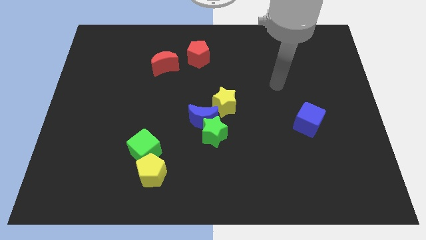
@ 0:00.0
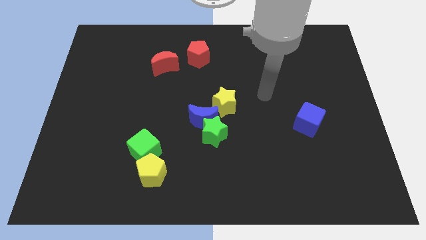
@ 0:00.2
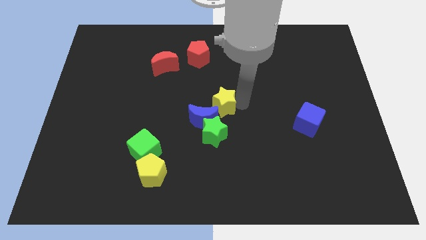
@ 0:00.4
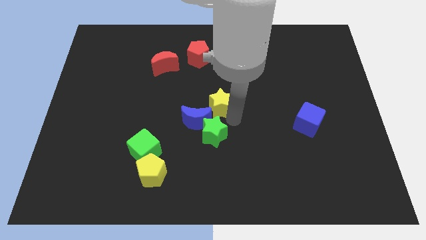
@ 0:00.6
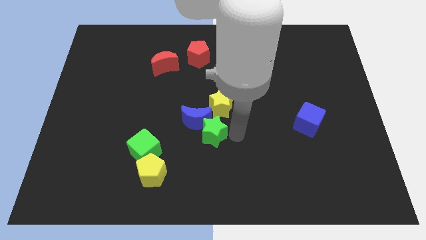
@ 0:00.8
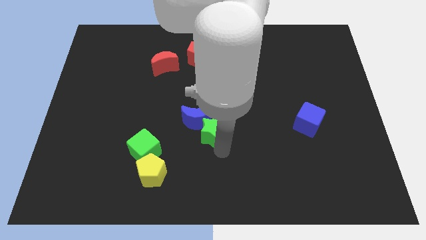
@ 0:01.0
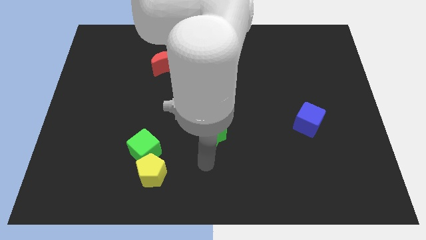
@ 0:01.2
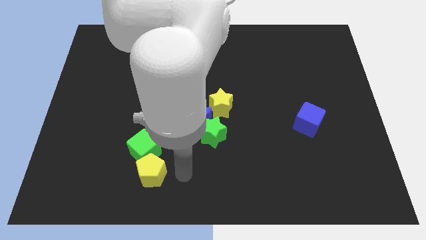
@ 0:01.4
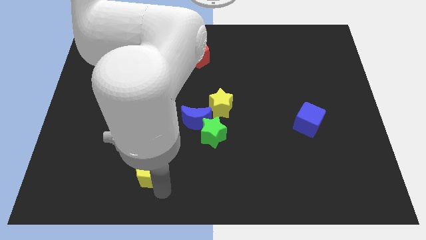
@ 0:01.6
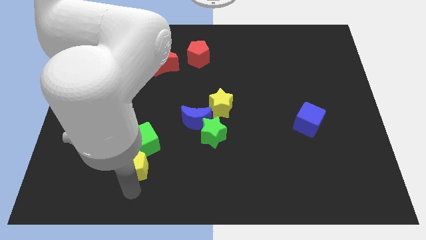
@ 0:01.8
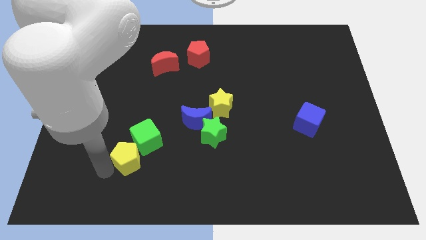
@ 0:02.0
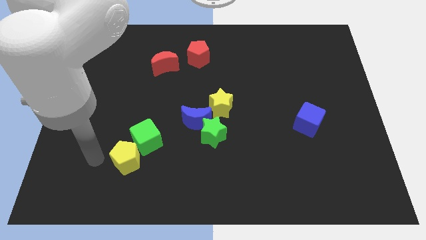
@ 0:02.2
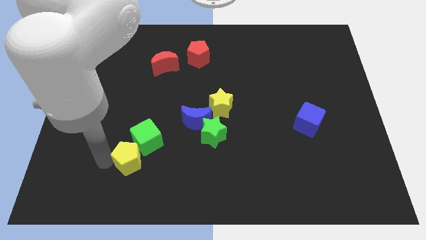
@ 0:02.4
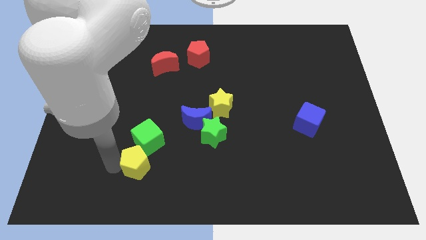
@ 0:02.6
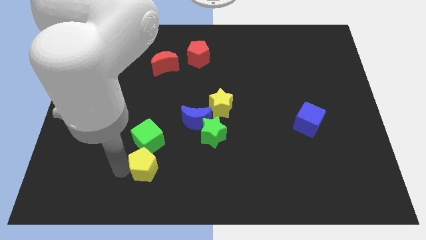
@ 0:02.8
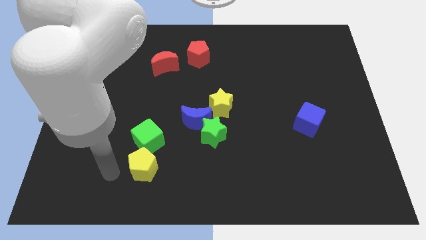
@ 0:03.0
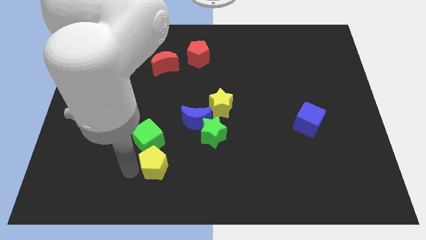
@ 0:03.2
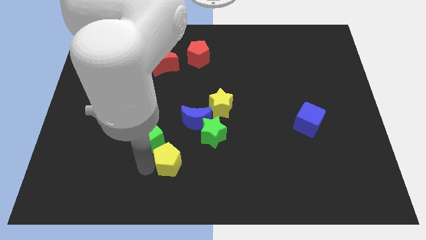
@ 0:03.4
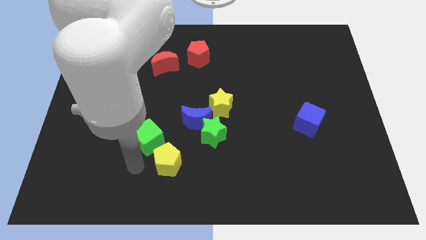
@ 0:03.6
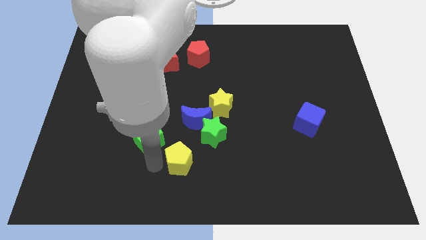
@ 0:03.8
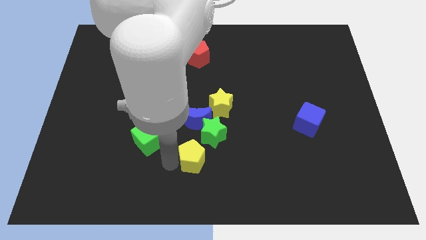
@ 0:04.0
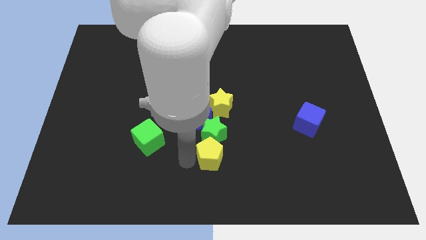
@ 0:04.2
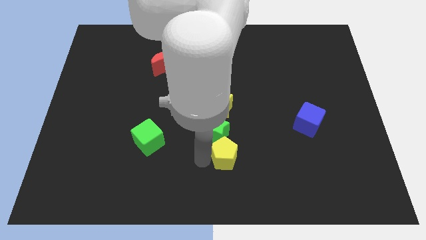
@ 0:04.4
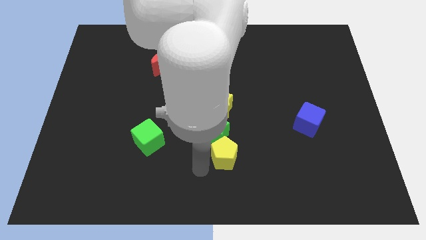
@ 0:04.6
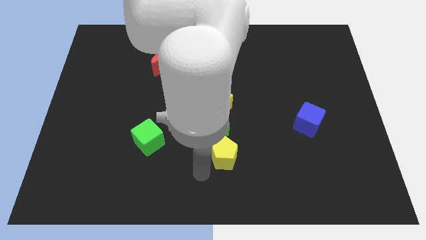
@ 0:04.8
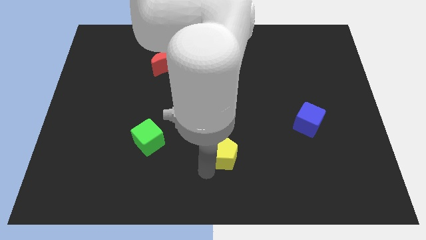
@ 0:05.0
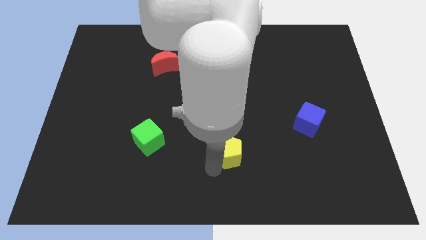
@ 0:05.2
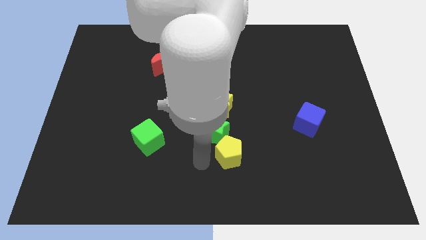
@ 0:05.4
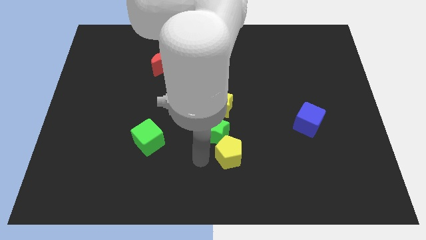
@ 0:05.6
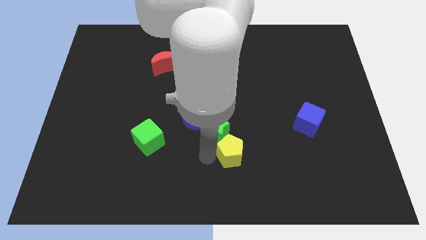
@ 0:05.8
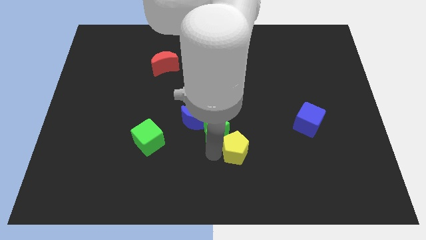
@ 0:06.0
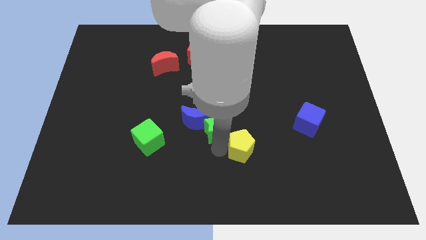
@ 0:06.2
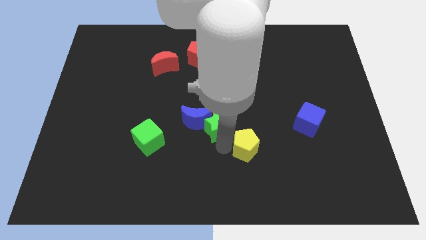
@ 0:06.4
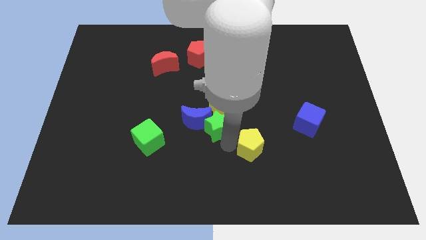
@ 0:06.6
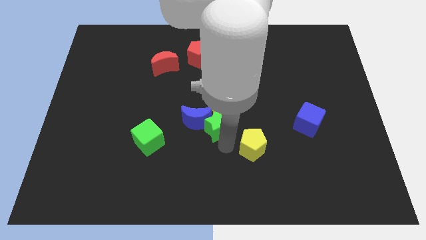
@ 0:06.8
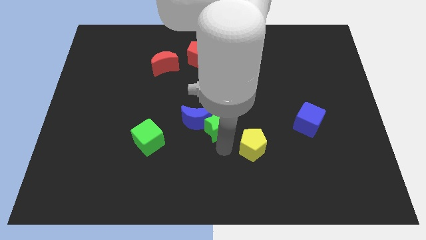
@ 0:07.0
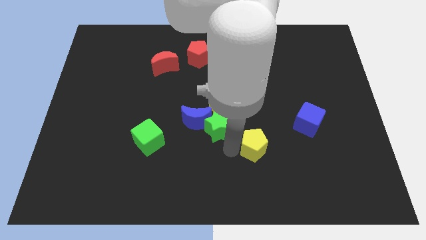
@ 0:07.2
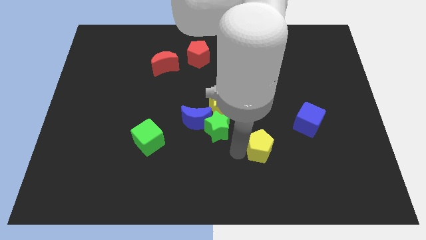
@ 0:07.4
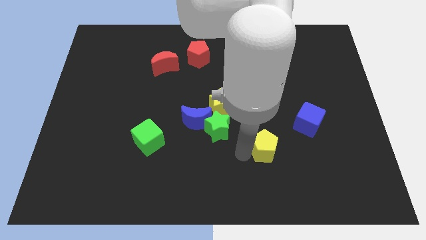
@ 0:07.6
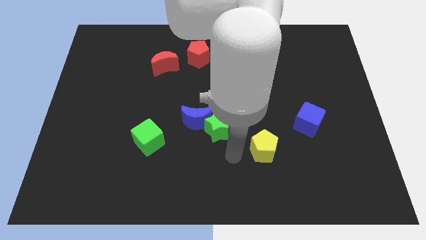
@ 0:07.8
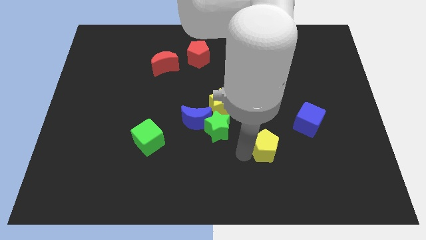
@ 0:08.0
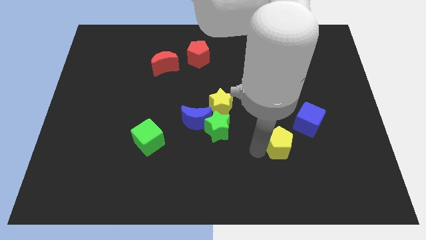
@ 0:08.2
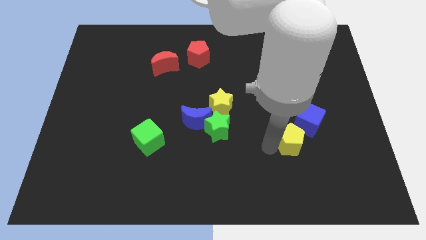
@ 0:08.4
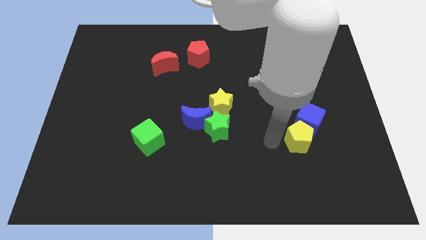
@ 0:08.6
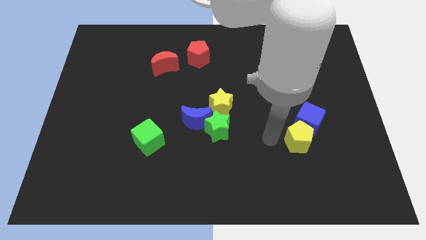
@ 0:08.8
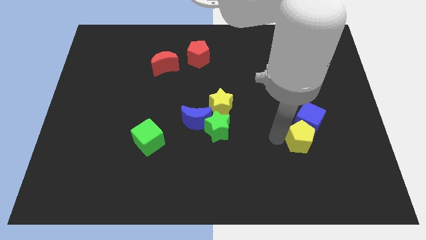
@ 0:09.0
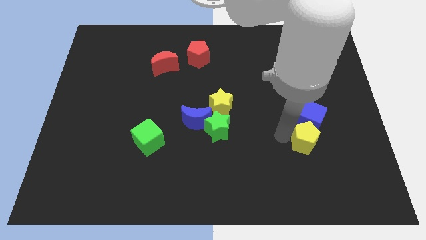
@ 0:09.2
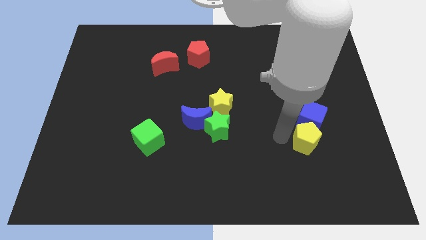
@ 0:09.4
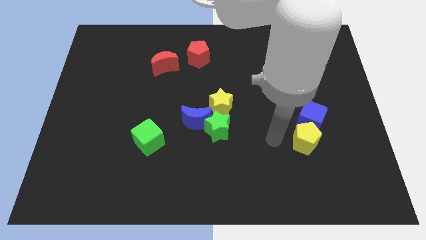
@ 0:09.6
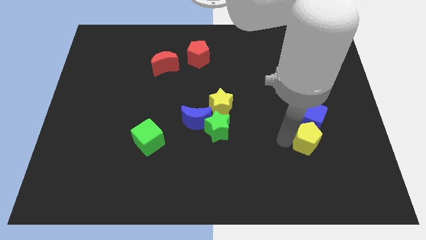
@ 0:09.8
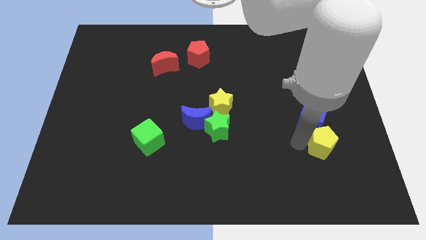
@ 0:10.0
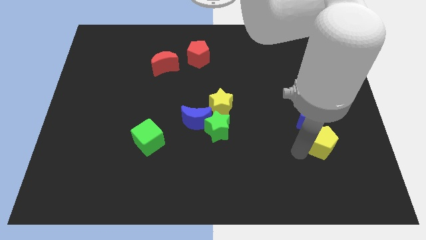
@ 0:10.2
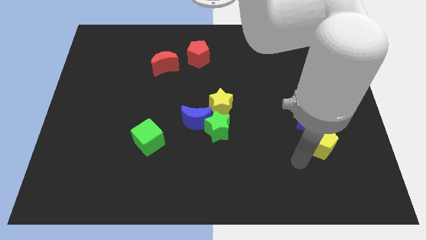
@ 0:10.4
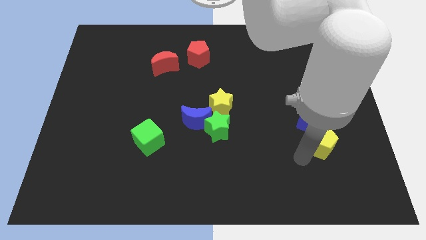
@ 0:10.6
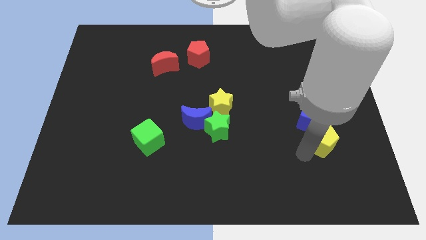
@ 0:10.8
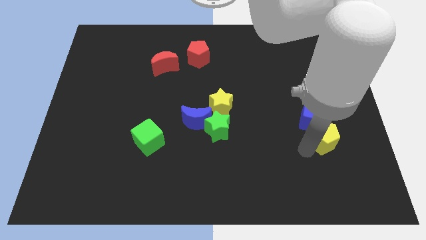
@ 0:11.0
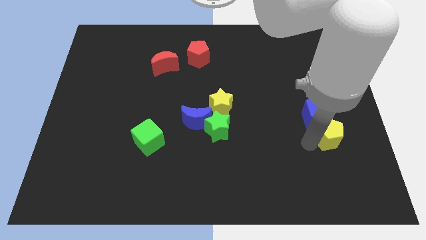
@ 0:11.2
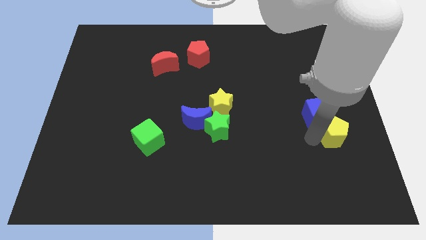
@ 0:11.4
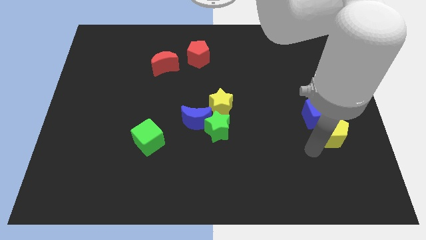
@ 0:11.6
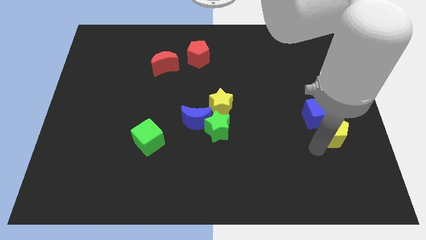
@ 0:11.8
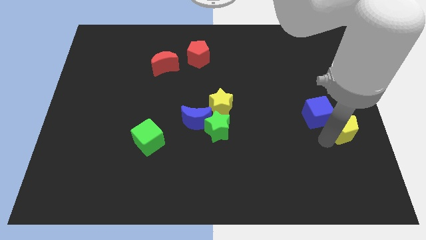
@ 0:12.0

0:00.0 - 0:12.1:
slide the yellow pentagon to the right side of the board
